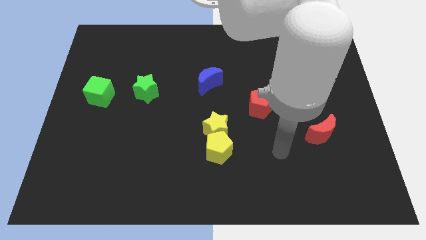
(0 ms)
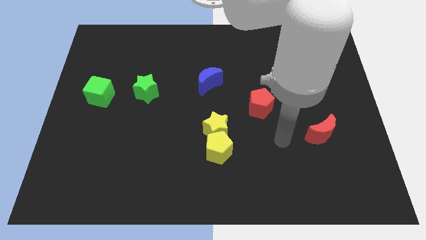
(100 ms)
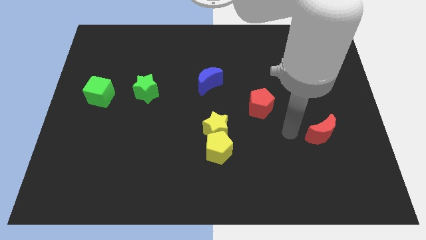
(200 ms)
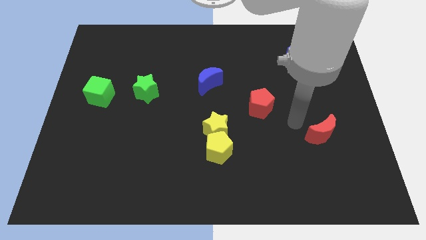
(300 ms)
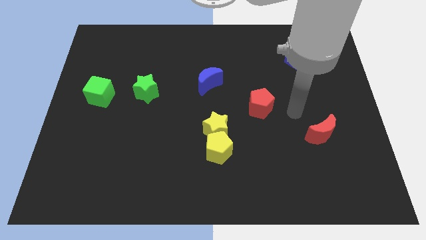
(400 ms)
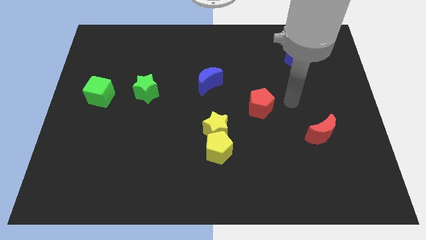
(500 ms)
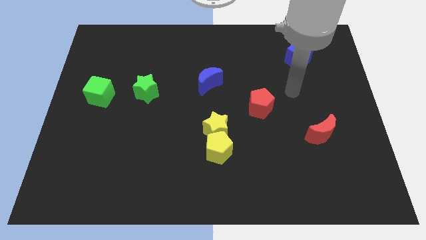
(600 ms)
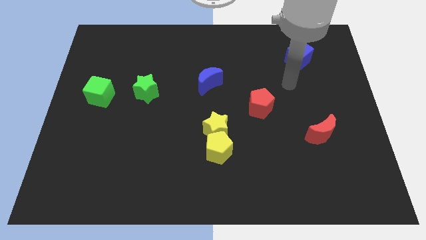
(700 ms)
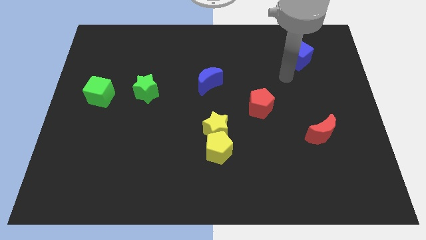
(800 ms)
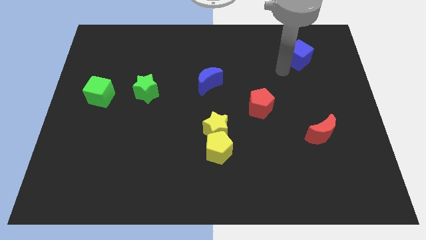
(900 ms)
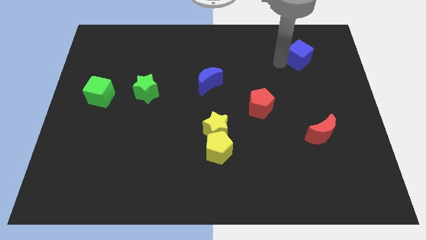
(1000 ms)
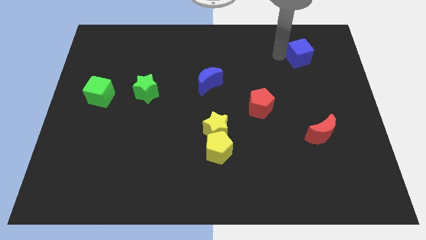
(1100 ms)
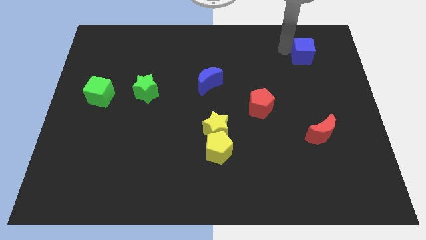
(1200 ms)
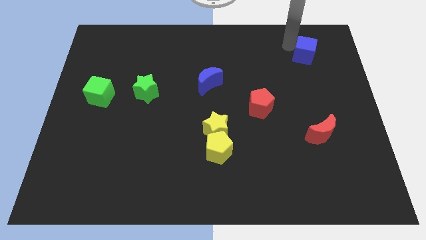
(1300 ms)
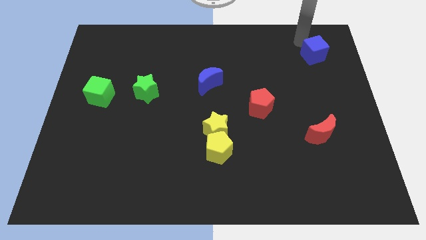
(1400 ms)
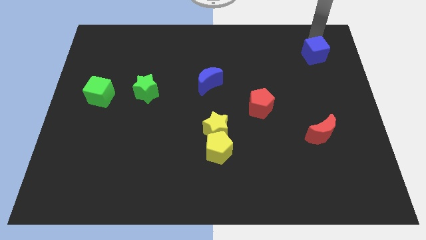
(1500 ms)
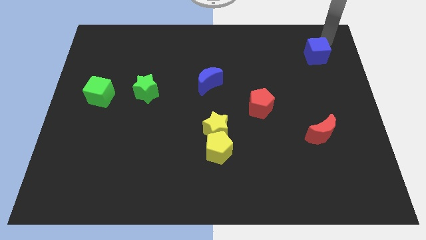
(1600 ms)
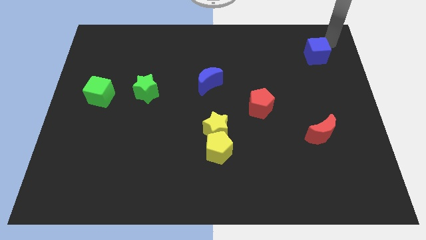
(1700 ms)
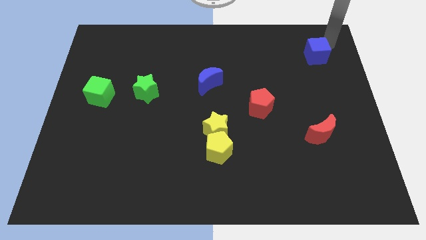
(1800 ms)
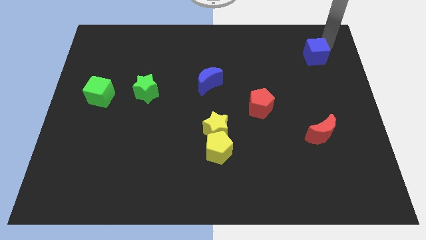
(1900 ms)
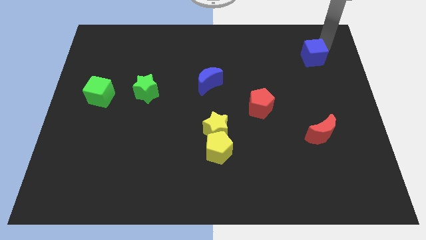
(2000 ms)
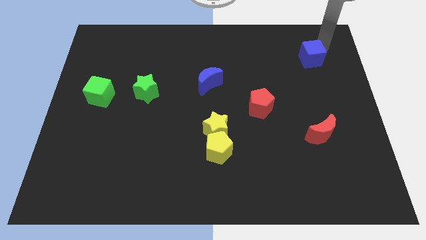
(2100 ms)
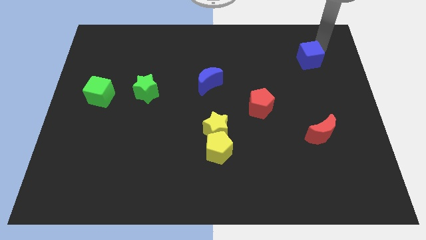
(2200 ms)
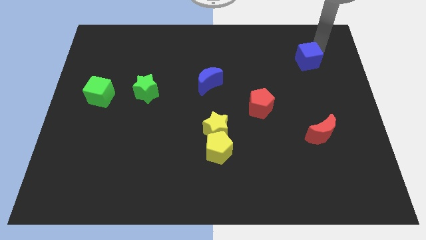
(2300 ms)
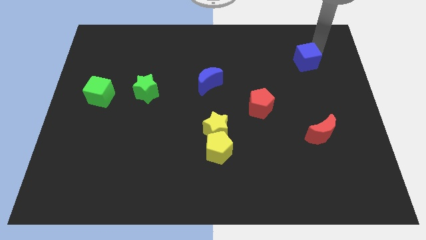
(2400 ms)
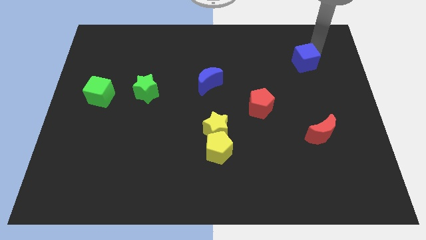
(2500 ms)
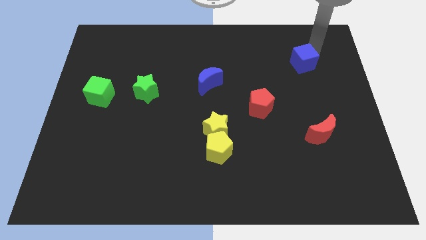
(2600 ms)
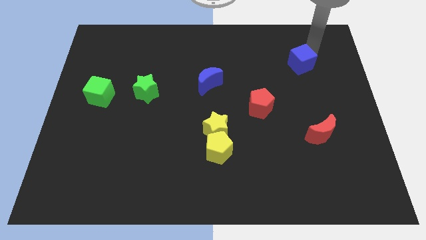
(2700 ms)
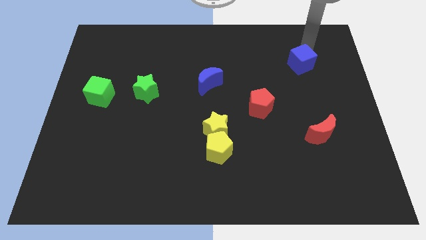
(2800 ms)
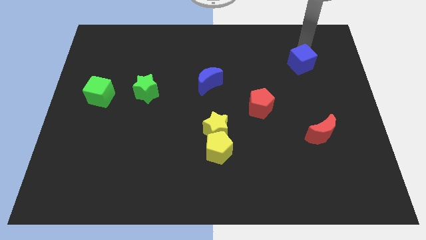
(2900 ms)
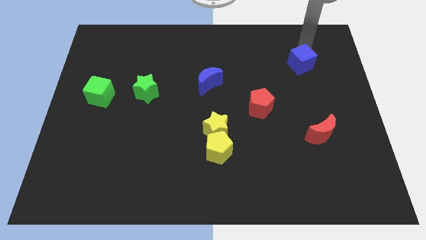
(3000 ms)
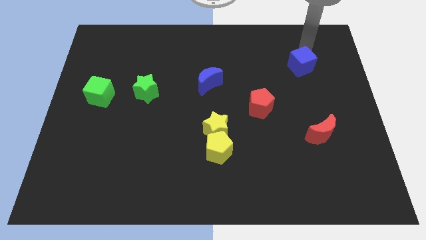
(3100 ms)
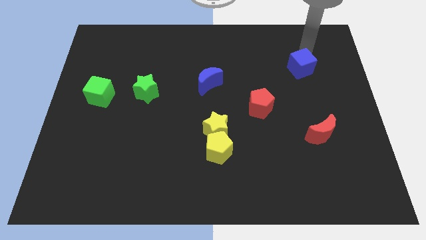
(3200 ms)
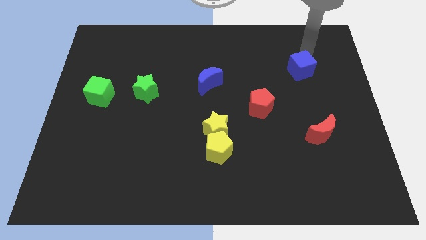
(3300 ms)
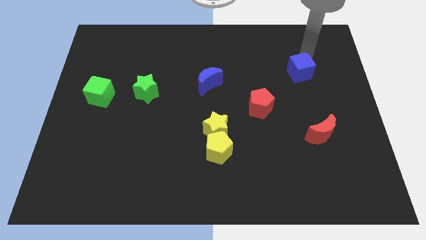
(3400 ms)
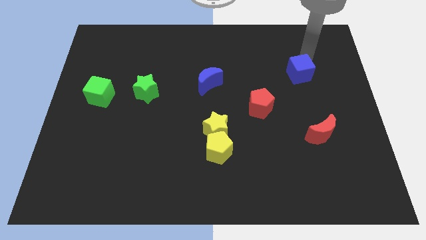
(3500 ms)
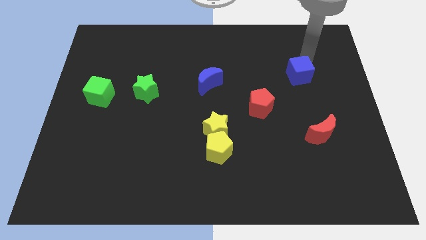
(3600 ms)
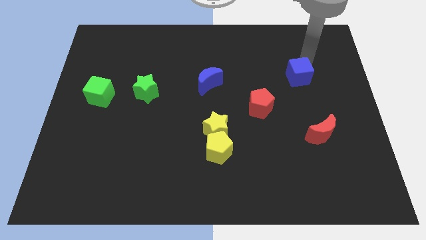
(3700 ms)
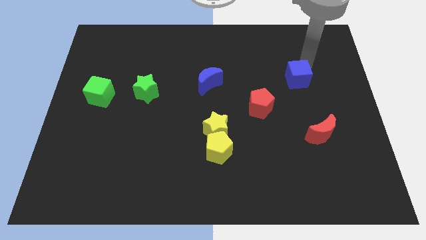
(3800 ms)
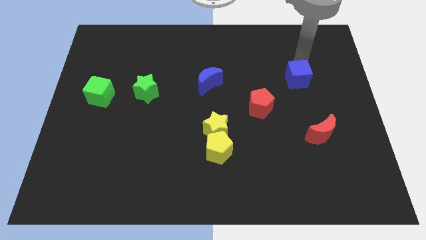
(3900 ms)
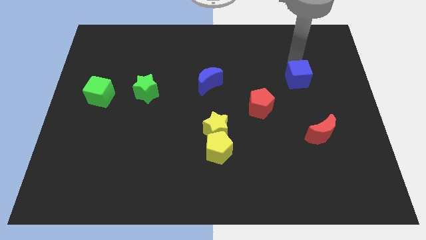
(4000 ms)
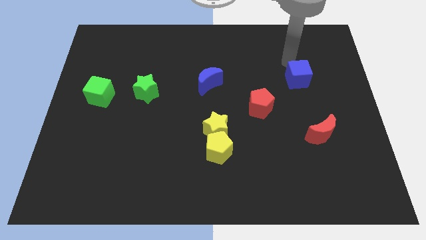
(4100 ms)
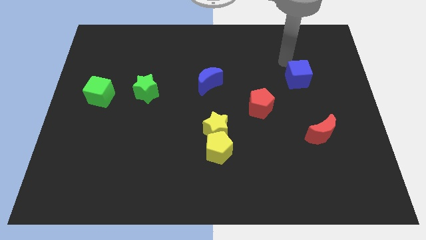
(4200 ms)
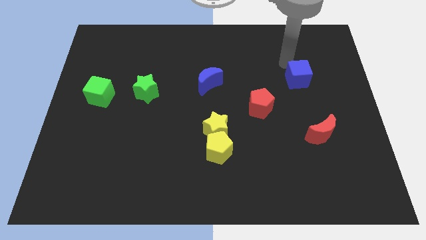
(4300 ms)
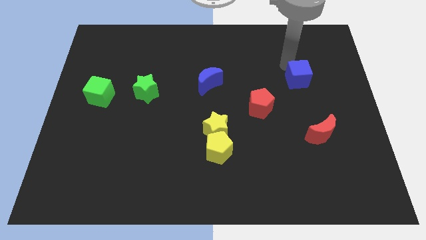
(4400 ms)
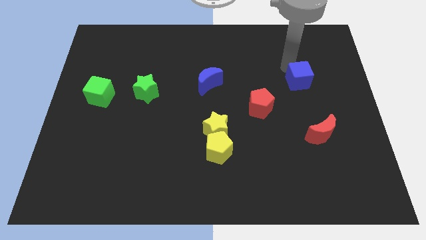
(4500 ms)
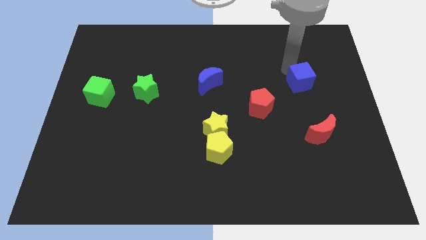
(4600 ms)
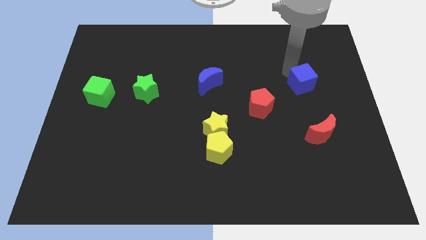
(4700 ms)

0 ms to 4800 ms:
push the blue cube to the top side of the red moon

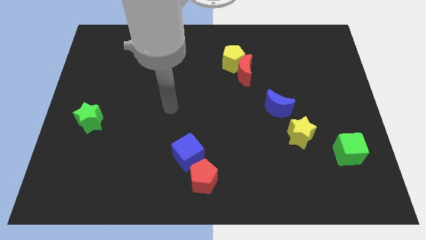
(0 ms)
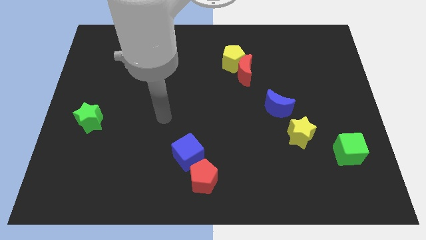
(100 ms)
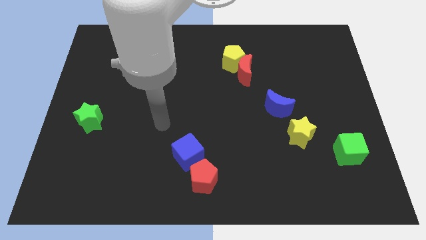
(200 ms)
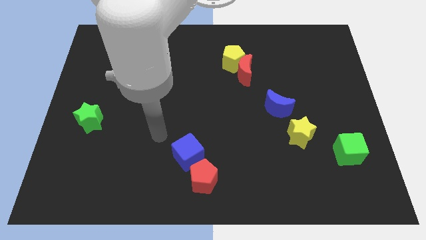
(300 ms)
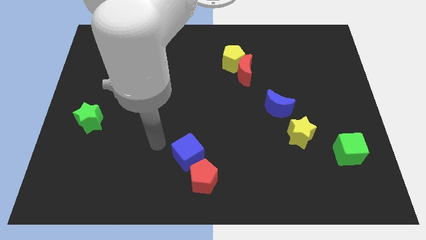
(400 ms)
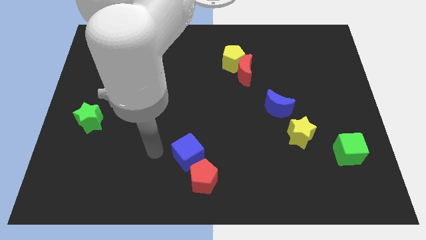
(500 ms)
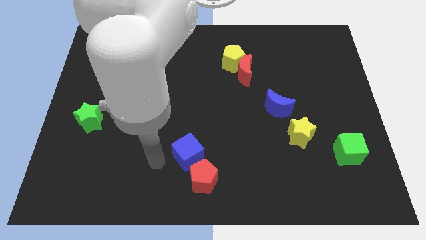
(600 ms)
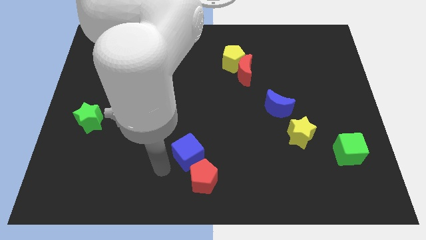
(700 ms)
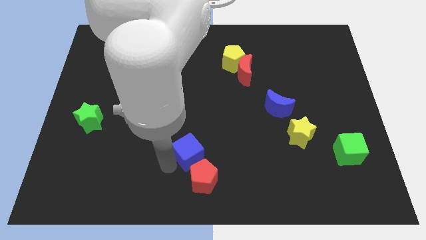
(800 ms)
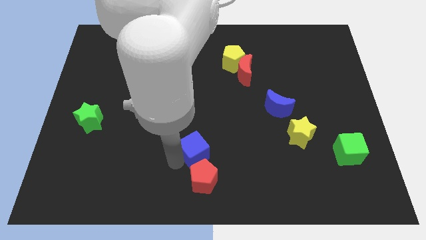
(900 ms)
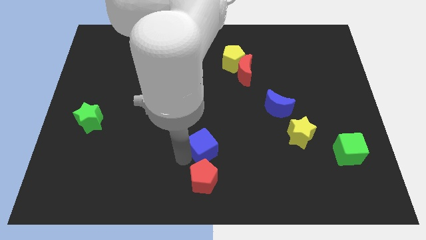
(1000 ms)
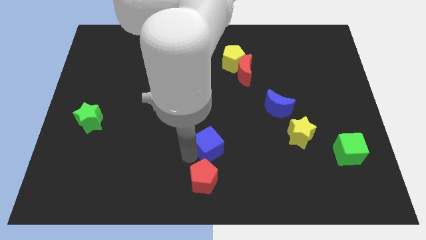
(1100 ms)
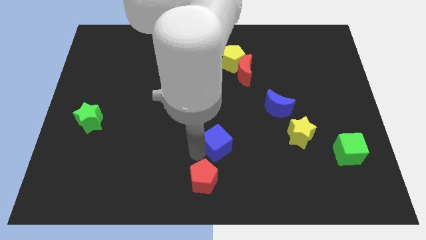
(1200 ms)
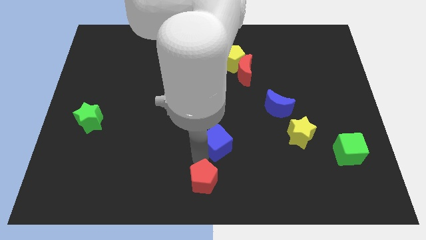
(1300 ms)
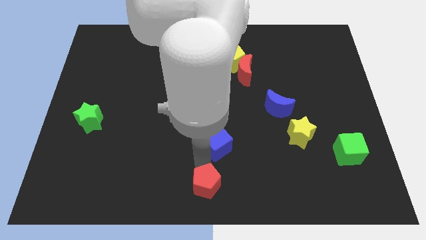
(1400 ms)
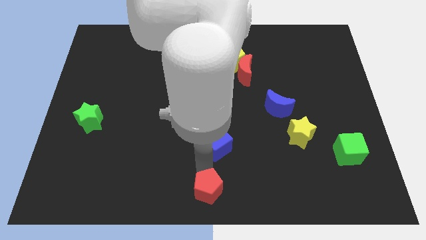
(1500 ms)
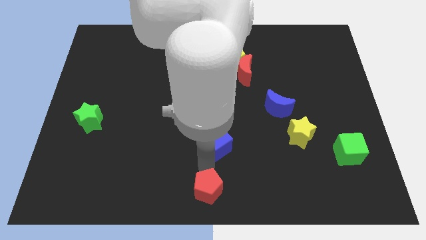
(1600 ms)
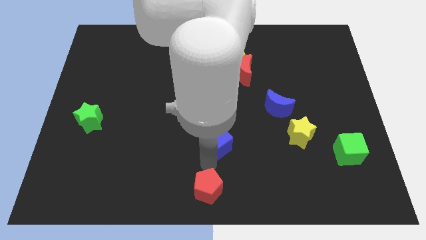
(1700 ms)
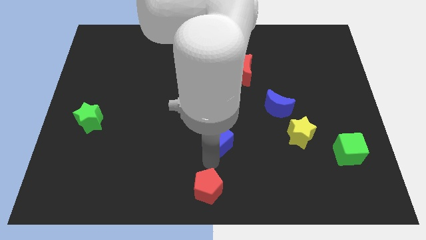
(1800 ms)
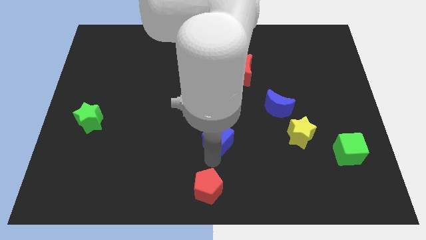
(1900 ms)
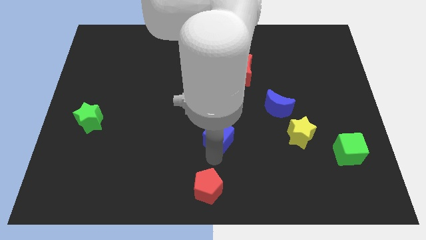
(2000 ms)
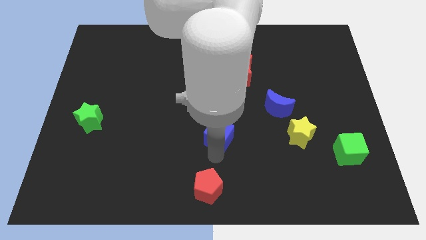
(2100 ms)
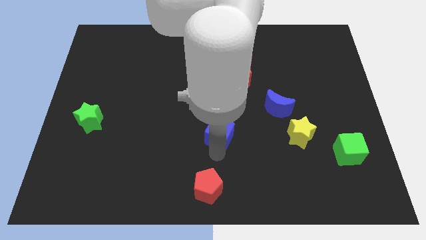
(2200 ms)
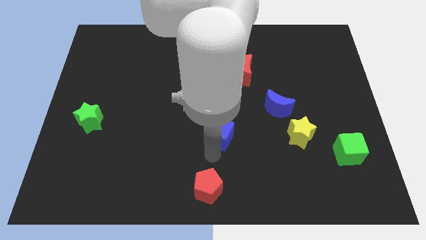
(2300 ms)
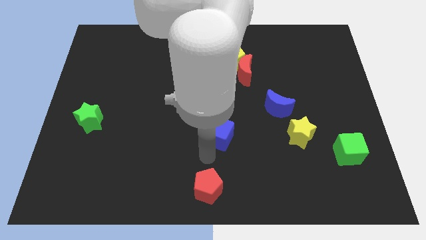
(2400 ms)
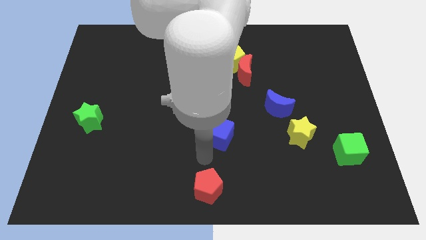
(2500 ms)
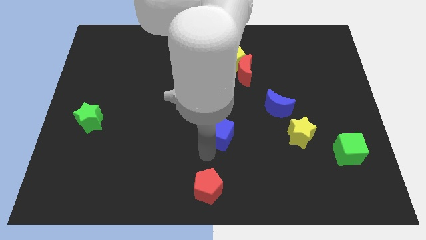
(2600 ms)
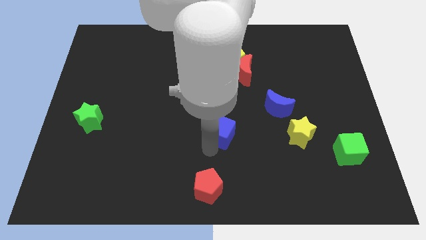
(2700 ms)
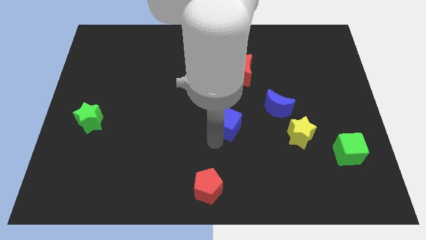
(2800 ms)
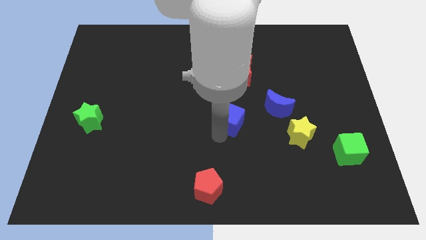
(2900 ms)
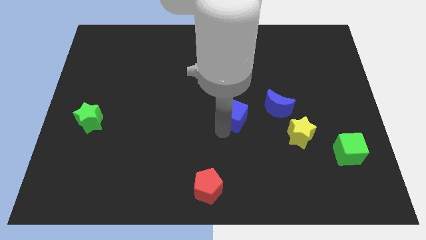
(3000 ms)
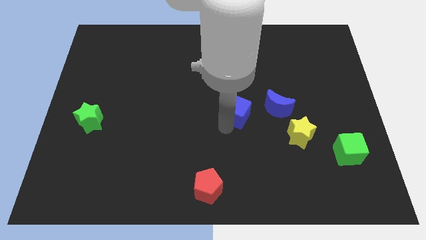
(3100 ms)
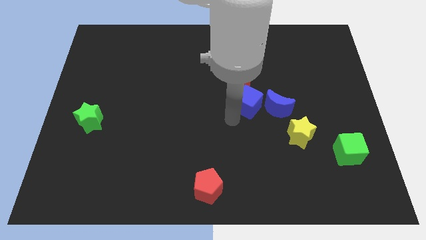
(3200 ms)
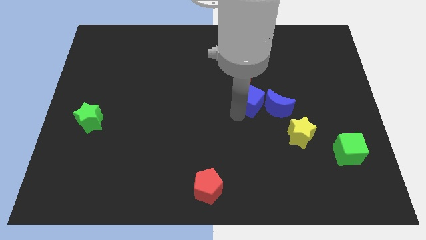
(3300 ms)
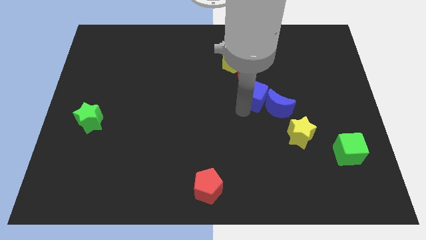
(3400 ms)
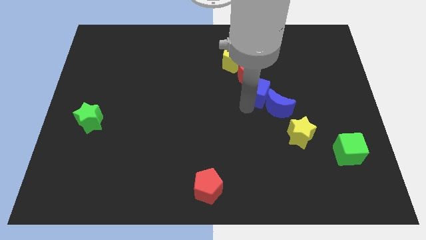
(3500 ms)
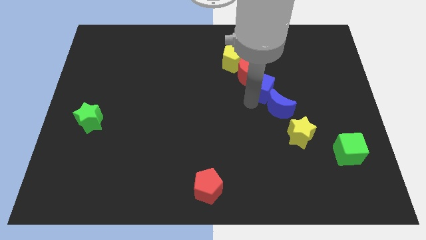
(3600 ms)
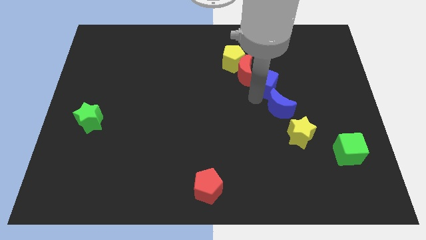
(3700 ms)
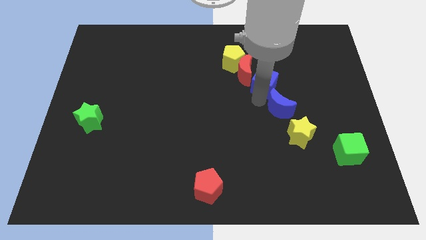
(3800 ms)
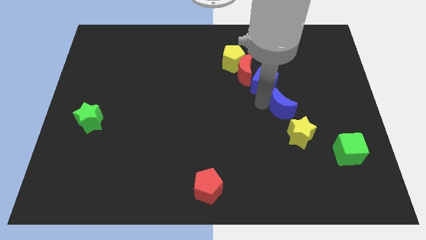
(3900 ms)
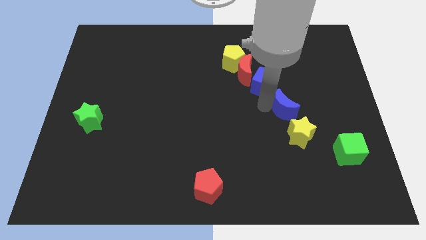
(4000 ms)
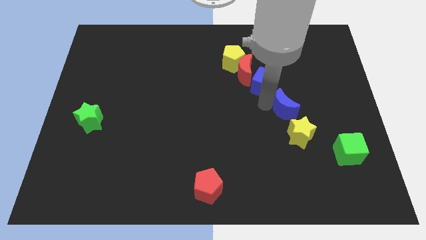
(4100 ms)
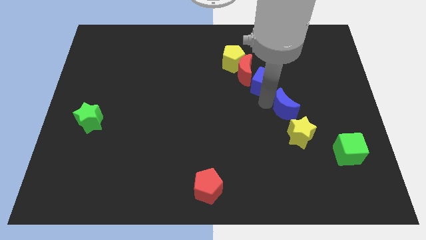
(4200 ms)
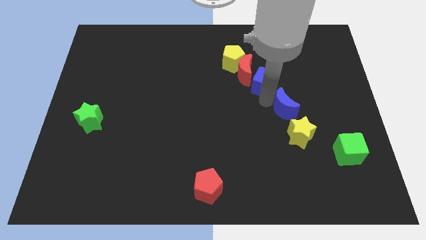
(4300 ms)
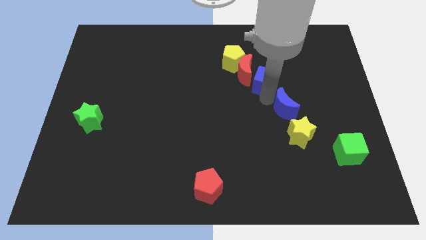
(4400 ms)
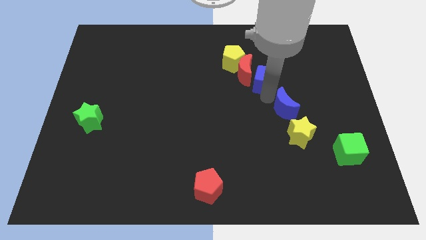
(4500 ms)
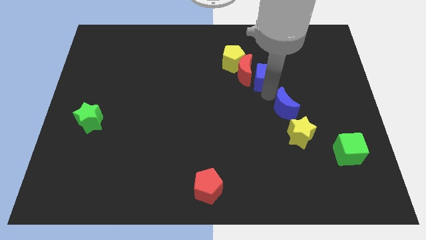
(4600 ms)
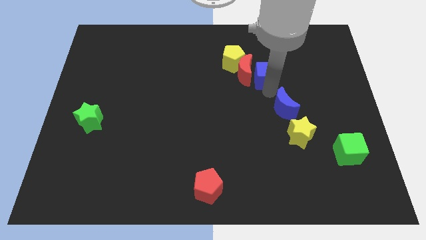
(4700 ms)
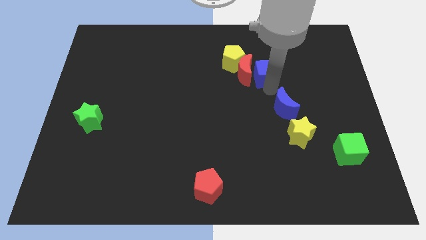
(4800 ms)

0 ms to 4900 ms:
slide the blue cube to the top right side of the red moon
